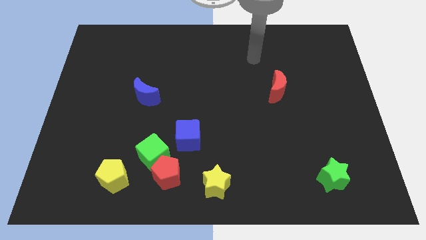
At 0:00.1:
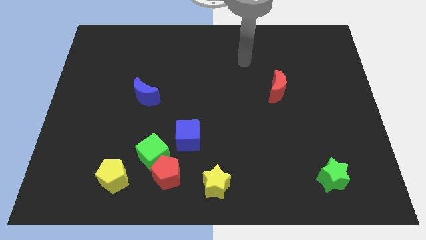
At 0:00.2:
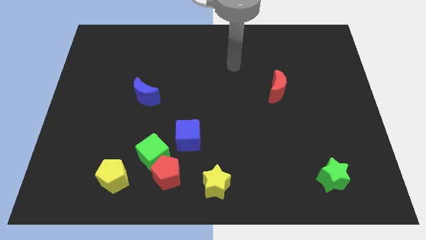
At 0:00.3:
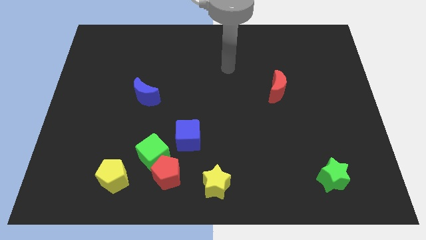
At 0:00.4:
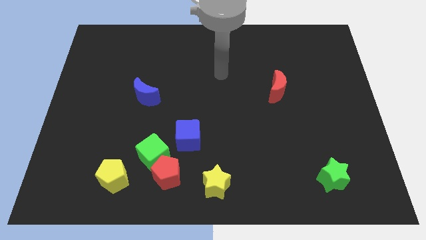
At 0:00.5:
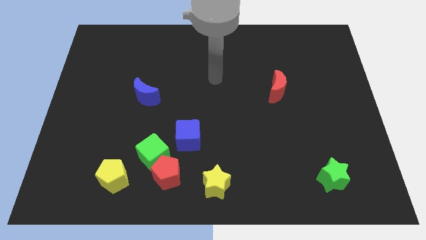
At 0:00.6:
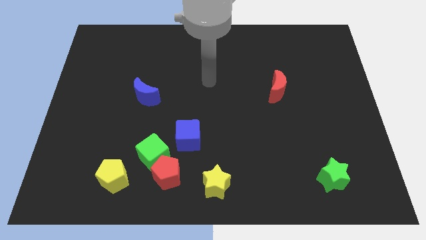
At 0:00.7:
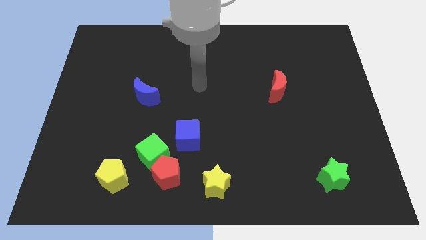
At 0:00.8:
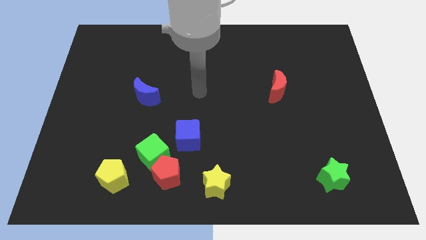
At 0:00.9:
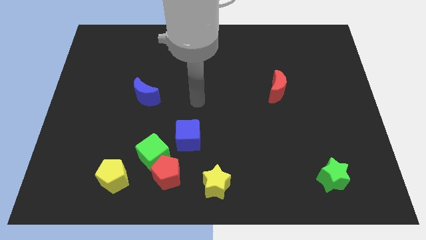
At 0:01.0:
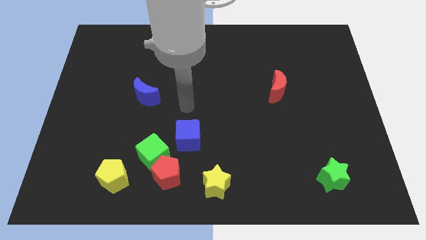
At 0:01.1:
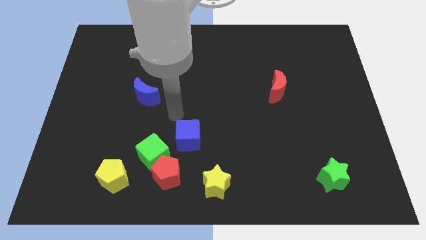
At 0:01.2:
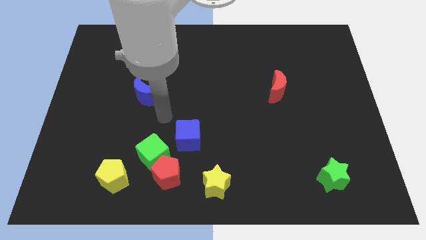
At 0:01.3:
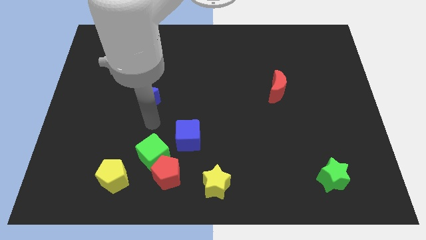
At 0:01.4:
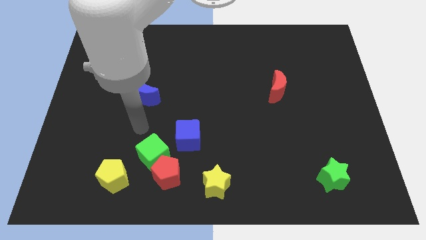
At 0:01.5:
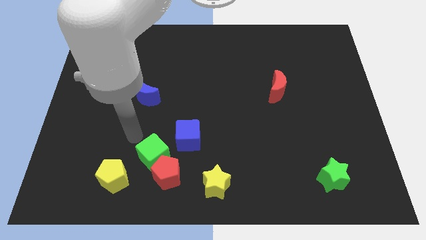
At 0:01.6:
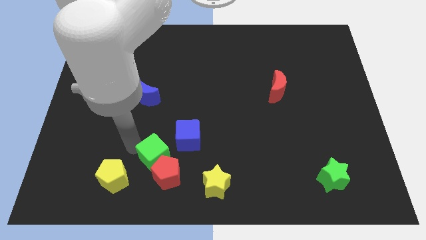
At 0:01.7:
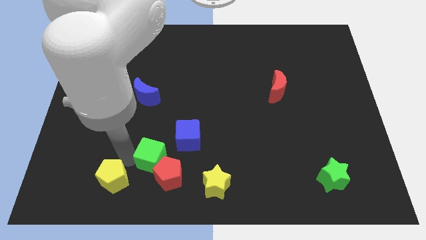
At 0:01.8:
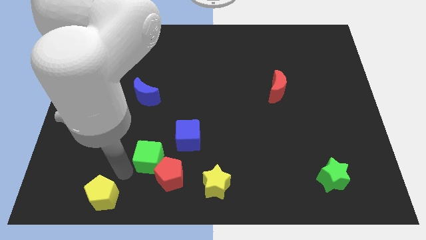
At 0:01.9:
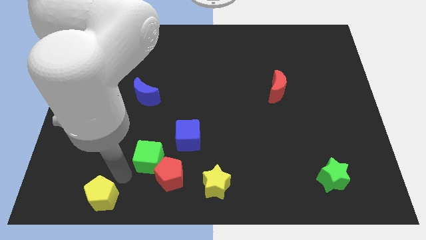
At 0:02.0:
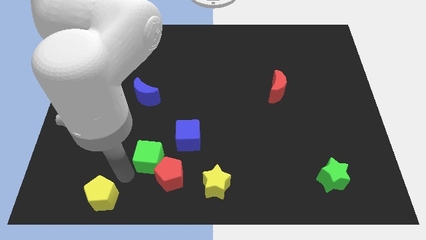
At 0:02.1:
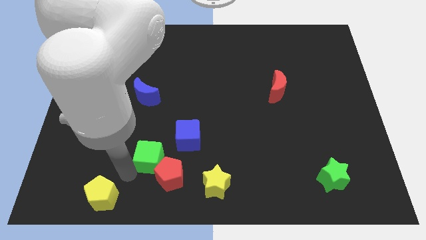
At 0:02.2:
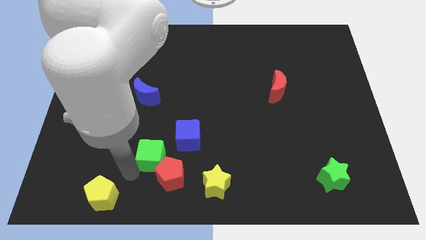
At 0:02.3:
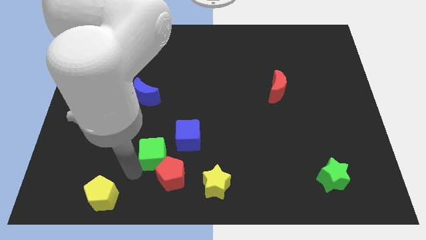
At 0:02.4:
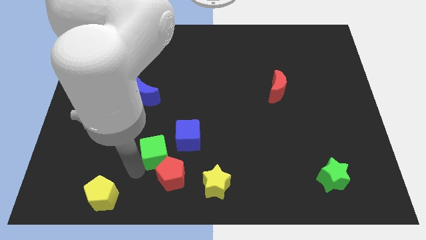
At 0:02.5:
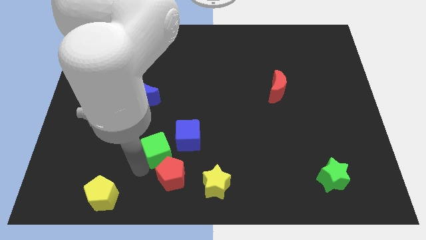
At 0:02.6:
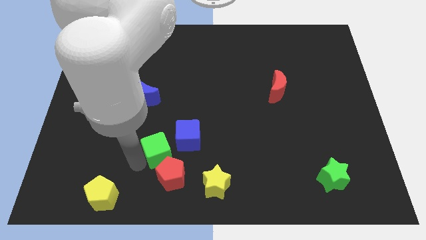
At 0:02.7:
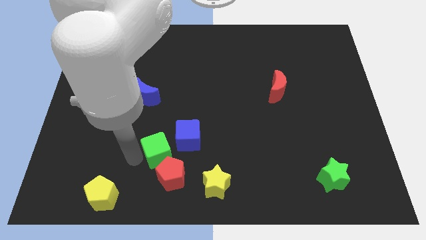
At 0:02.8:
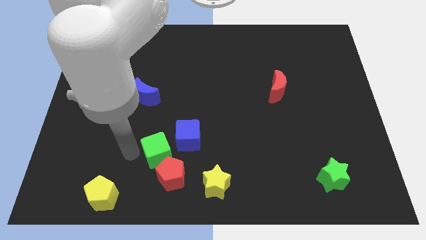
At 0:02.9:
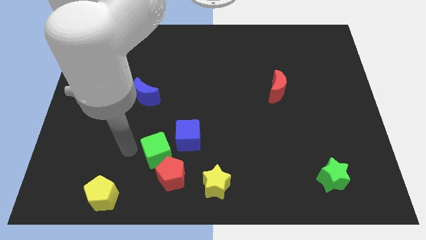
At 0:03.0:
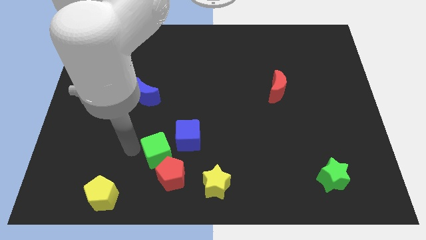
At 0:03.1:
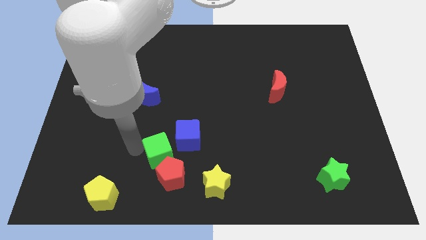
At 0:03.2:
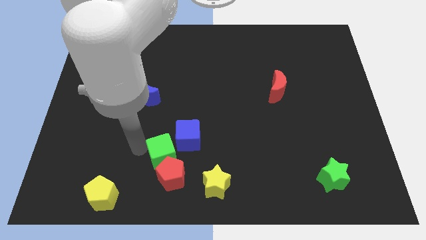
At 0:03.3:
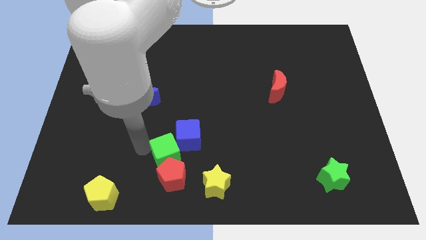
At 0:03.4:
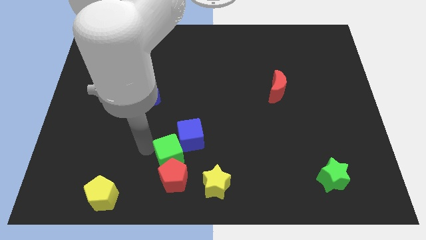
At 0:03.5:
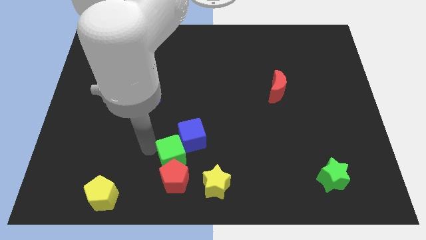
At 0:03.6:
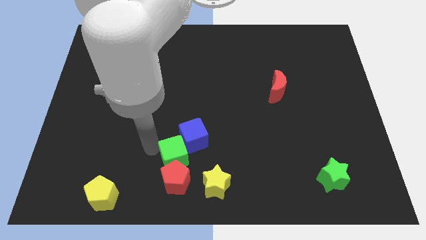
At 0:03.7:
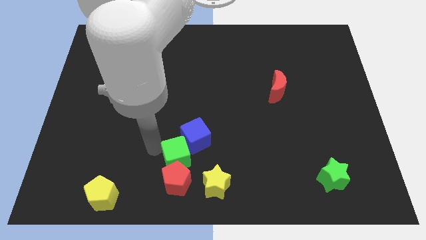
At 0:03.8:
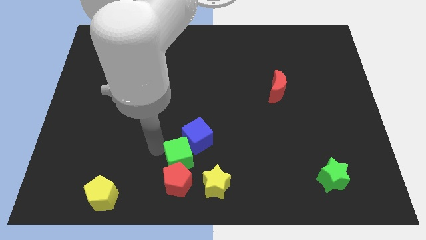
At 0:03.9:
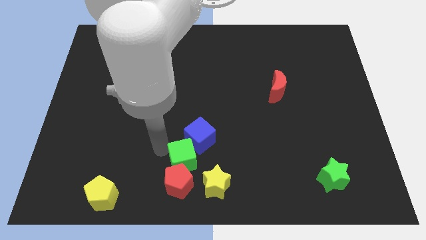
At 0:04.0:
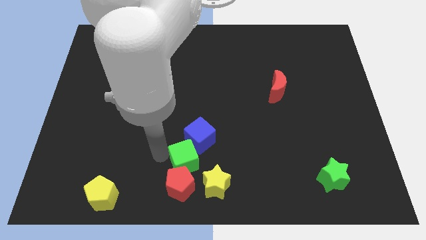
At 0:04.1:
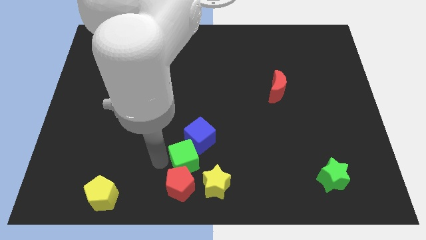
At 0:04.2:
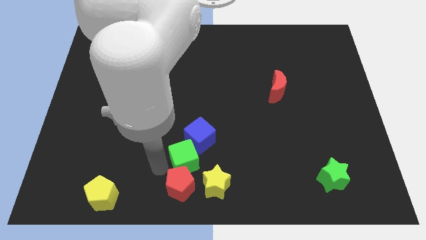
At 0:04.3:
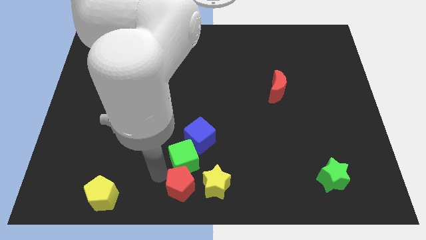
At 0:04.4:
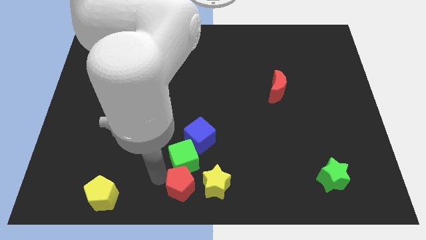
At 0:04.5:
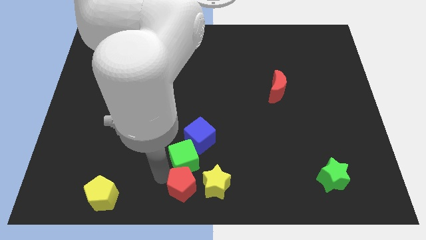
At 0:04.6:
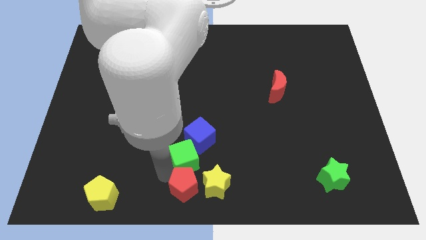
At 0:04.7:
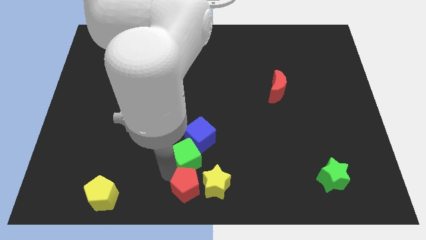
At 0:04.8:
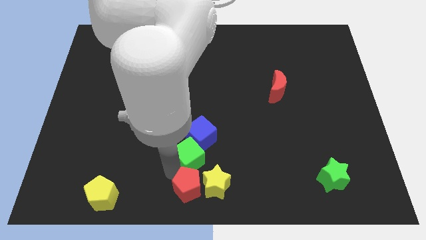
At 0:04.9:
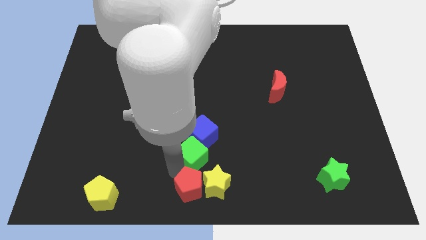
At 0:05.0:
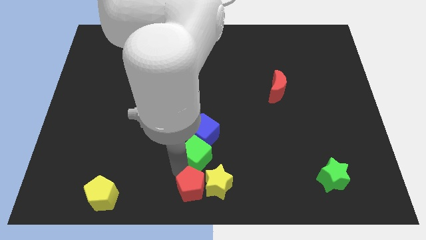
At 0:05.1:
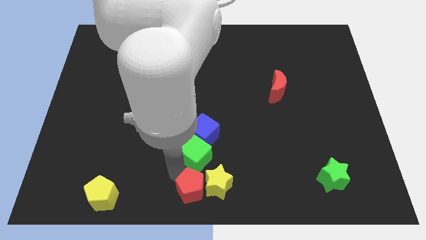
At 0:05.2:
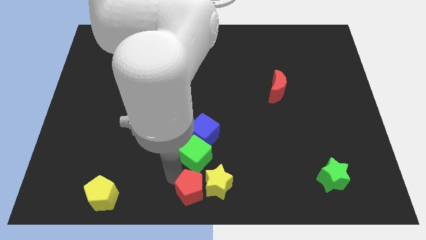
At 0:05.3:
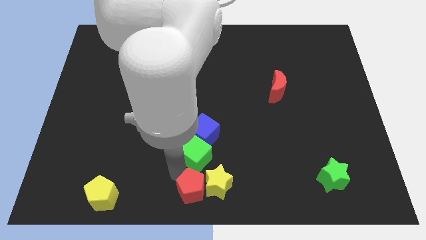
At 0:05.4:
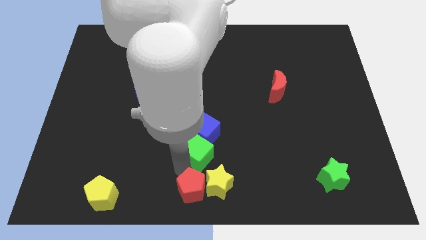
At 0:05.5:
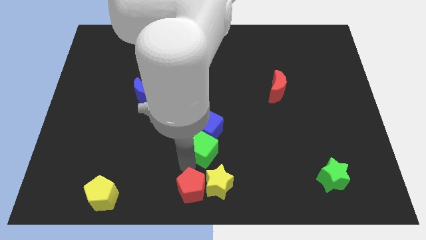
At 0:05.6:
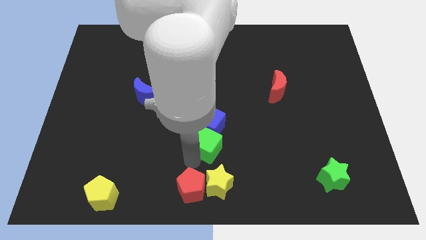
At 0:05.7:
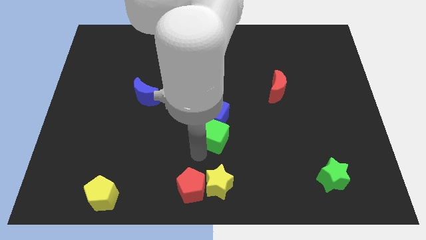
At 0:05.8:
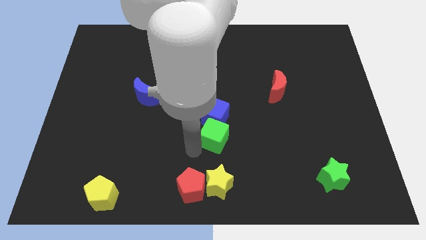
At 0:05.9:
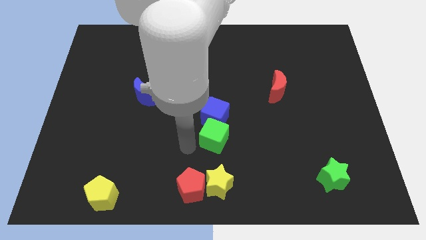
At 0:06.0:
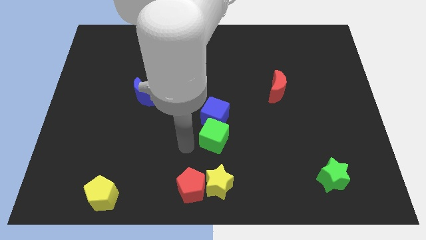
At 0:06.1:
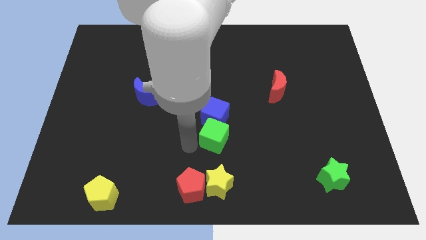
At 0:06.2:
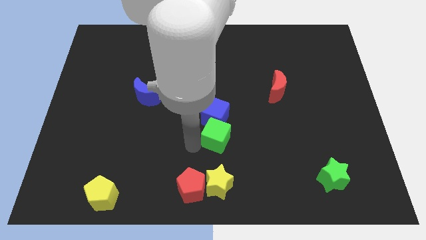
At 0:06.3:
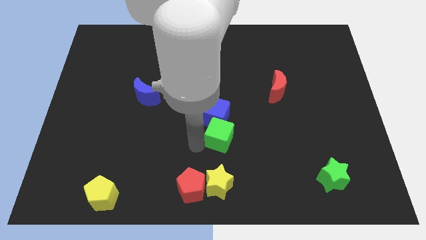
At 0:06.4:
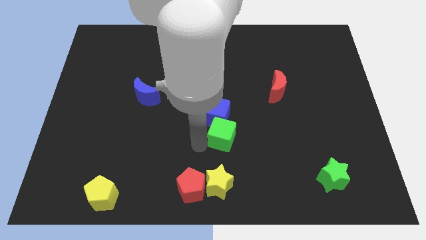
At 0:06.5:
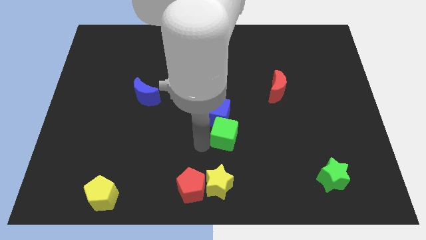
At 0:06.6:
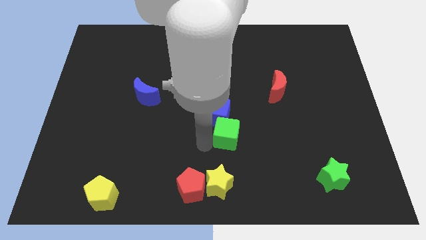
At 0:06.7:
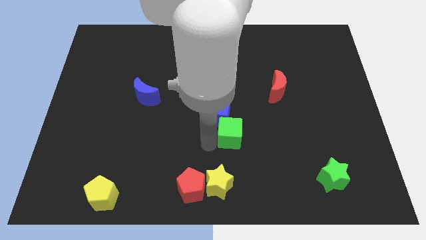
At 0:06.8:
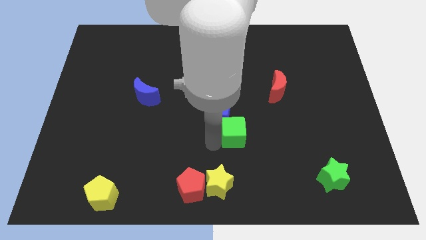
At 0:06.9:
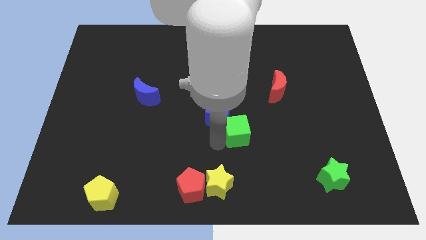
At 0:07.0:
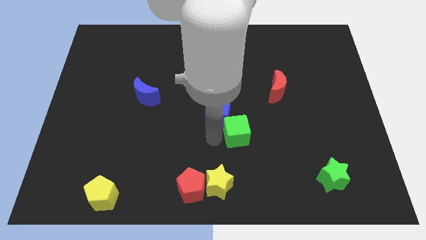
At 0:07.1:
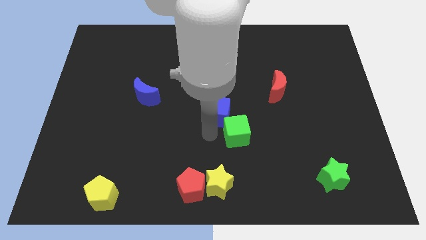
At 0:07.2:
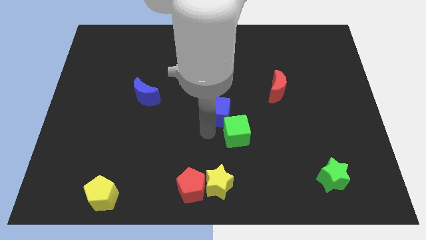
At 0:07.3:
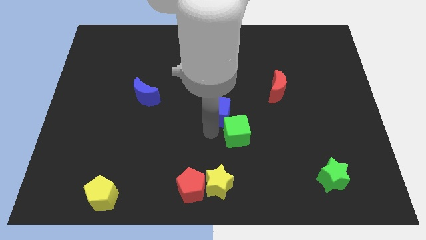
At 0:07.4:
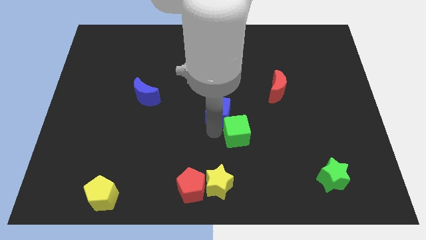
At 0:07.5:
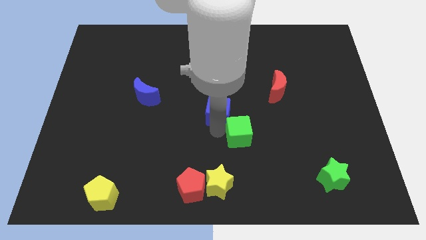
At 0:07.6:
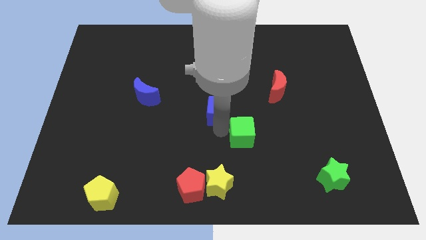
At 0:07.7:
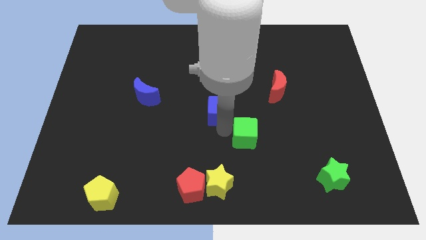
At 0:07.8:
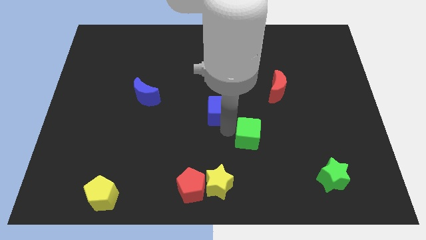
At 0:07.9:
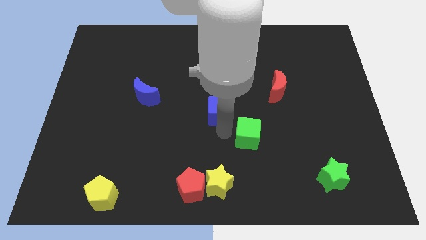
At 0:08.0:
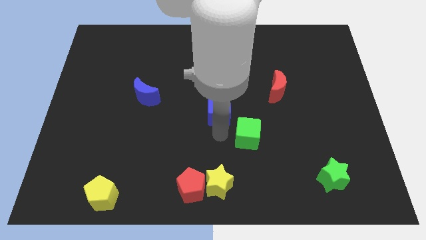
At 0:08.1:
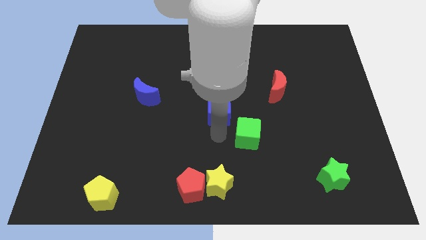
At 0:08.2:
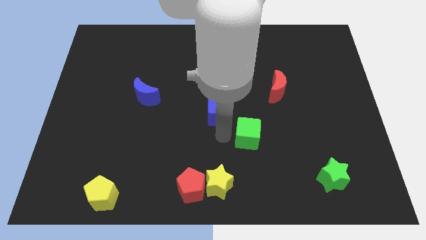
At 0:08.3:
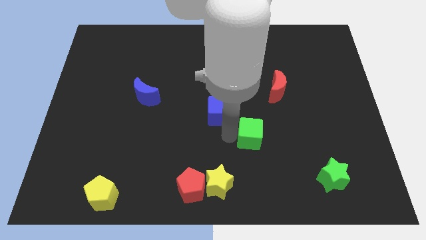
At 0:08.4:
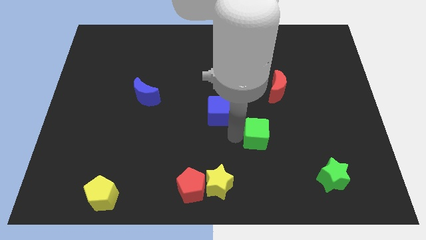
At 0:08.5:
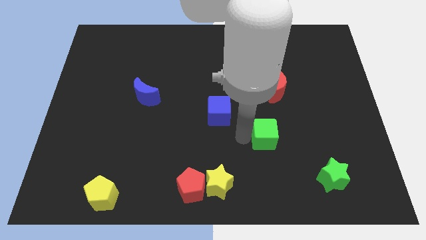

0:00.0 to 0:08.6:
move the green cube below the red moon
